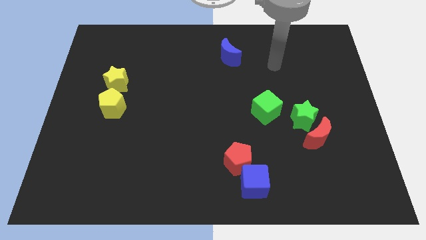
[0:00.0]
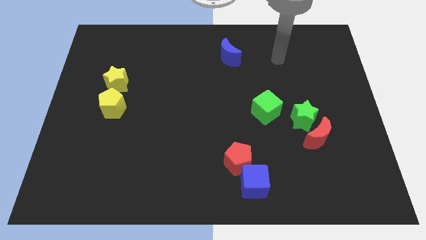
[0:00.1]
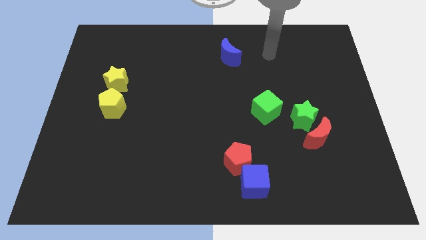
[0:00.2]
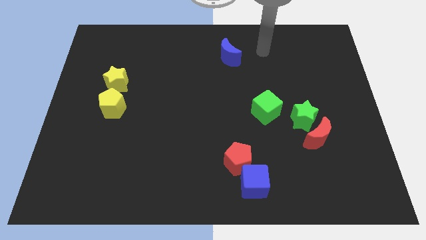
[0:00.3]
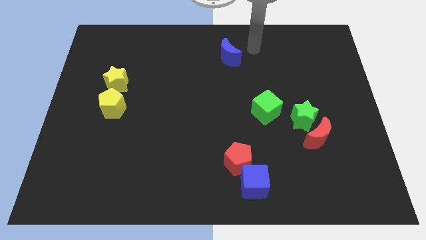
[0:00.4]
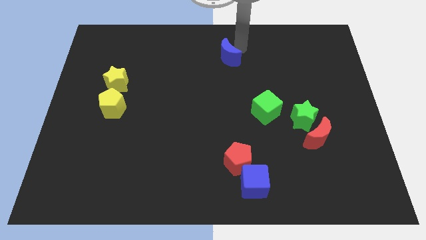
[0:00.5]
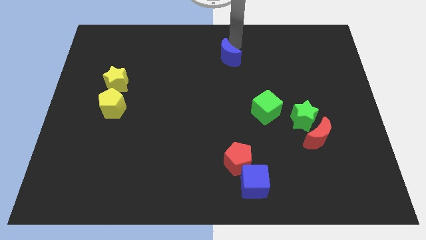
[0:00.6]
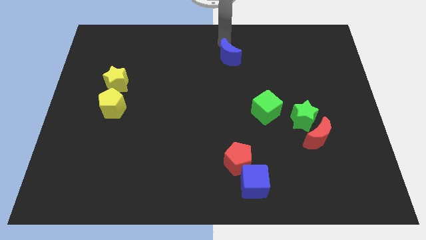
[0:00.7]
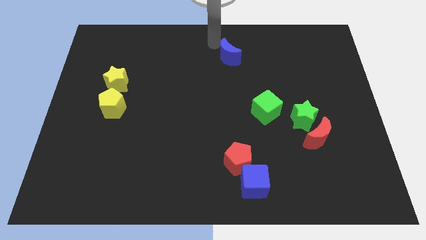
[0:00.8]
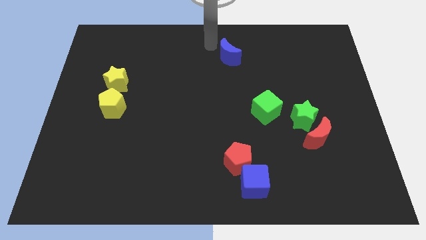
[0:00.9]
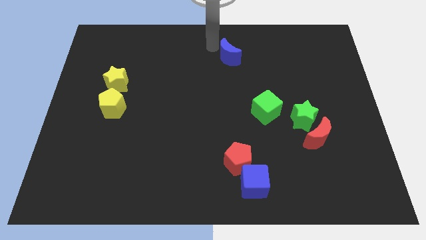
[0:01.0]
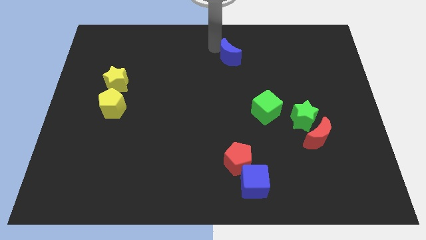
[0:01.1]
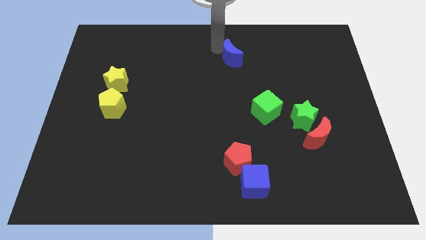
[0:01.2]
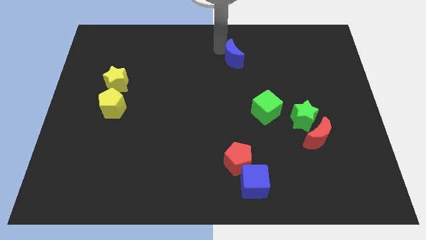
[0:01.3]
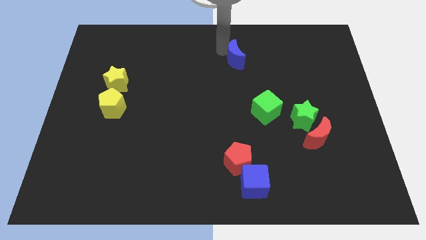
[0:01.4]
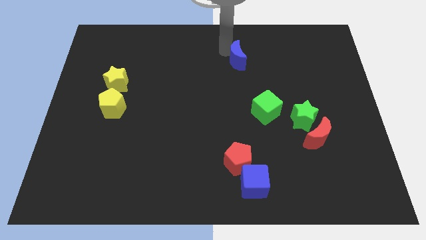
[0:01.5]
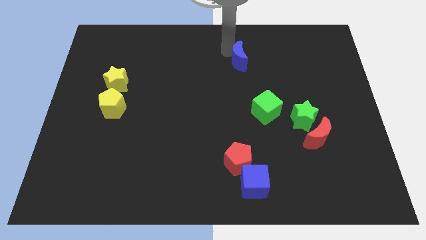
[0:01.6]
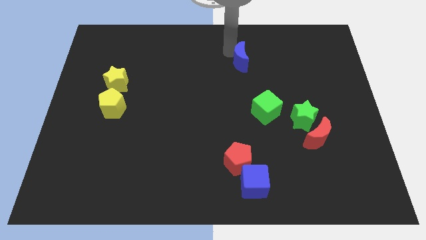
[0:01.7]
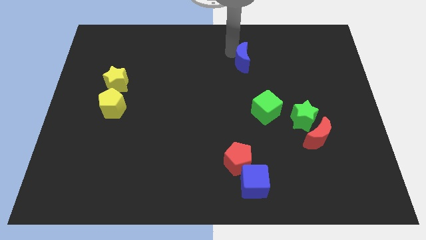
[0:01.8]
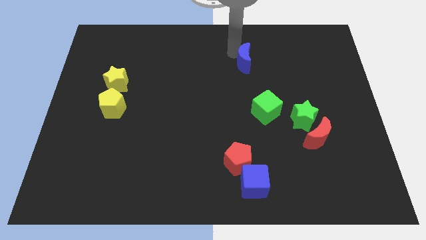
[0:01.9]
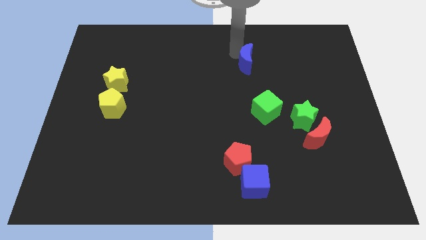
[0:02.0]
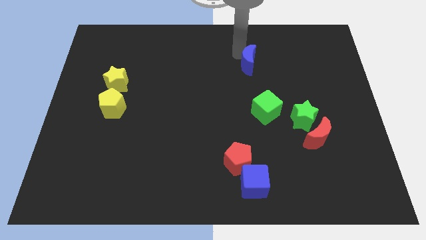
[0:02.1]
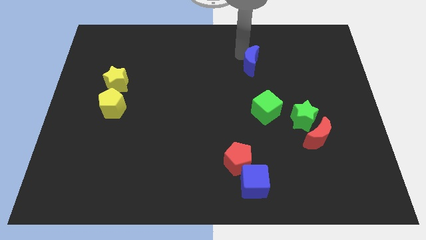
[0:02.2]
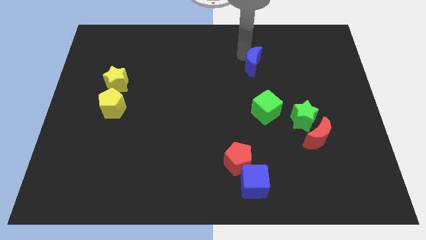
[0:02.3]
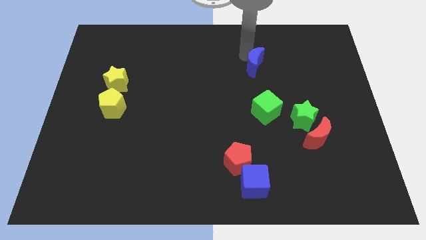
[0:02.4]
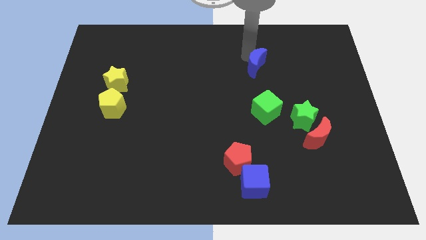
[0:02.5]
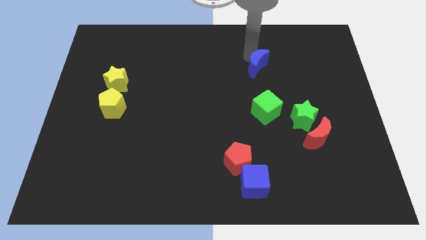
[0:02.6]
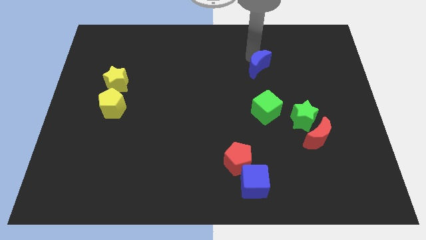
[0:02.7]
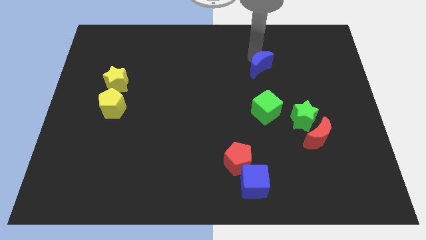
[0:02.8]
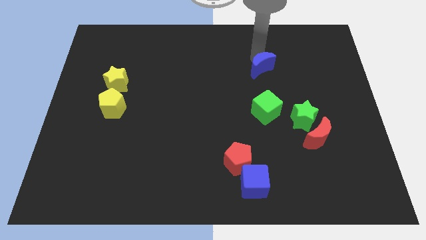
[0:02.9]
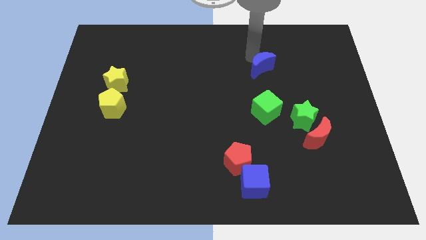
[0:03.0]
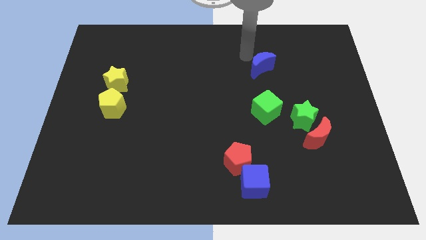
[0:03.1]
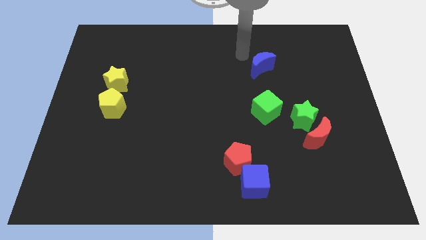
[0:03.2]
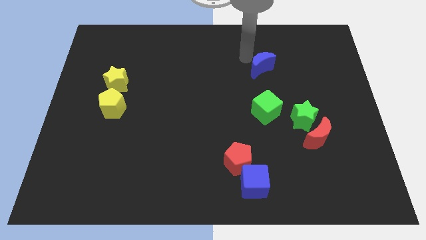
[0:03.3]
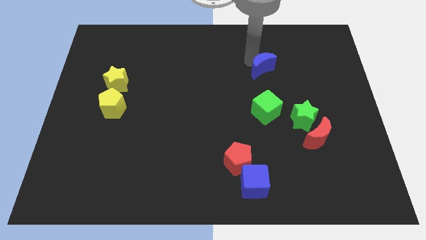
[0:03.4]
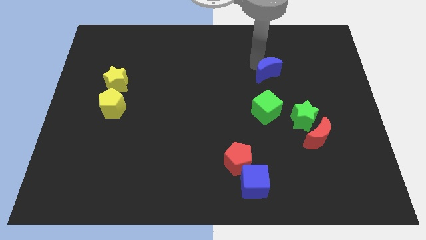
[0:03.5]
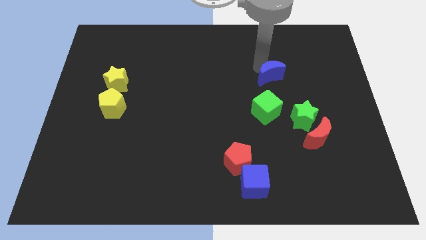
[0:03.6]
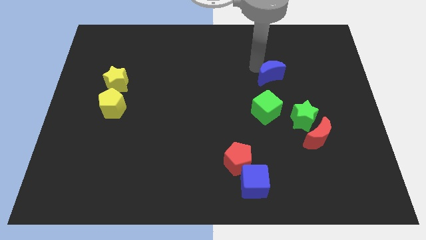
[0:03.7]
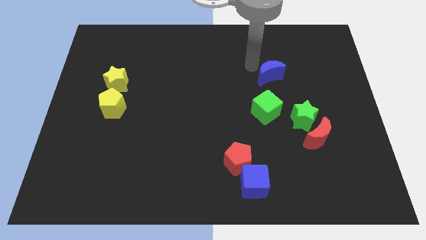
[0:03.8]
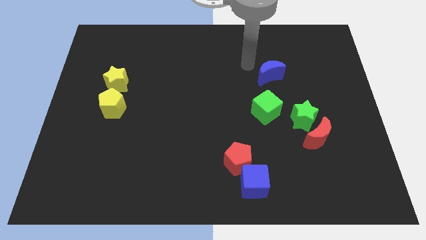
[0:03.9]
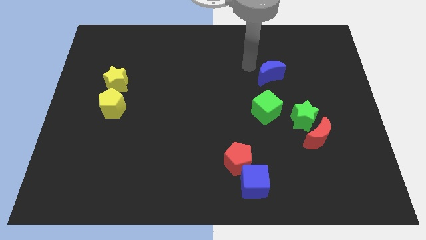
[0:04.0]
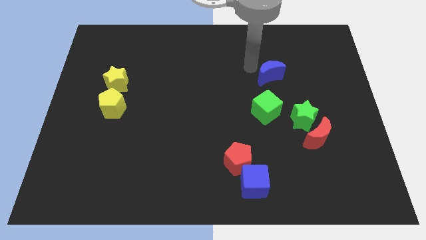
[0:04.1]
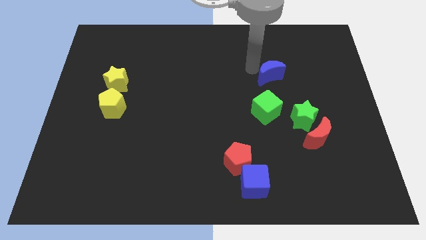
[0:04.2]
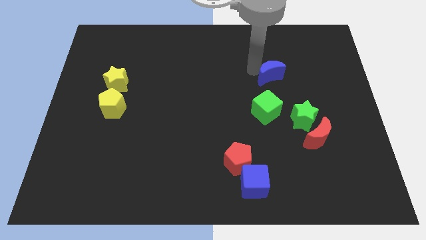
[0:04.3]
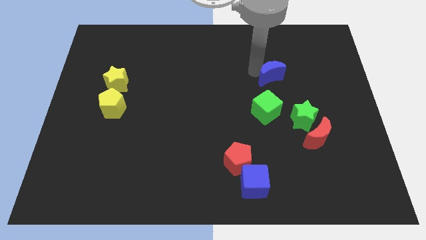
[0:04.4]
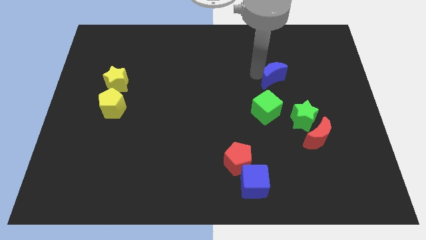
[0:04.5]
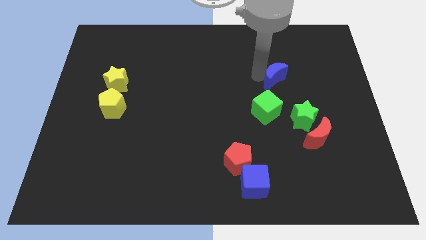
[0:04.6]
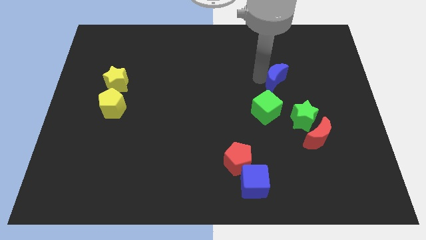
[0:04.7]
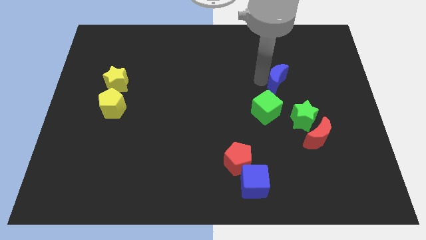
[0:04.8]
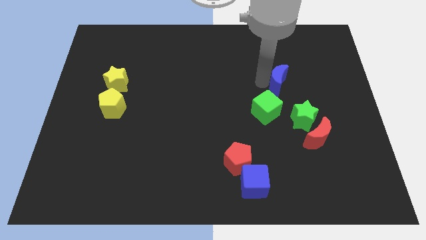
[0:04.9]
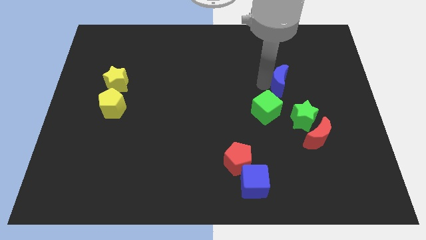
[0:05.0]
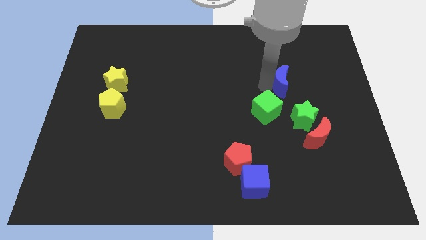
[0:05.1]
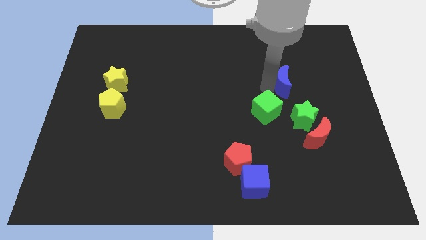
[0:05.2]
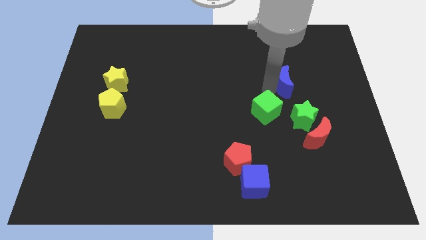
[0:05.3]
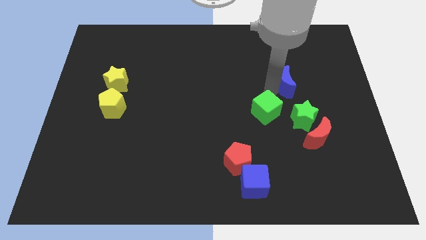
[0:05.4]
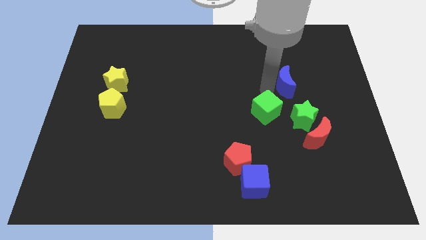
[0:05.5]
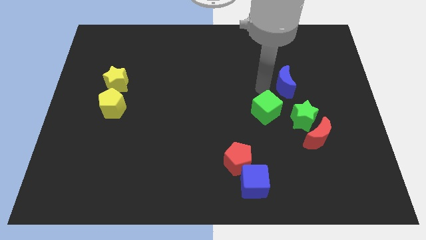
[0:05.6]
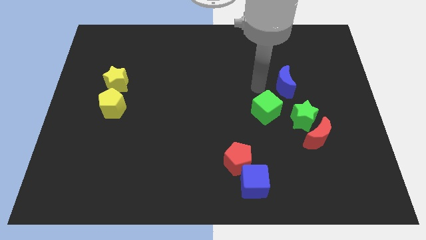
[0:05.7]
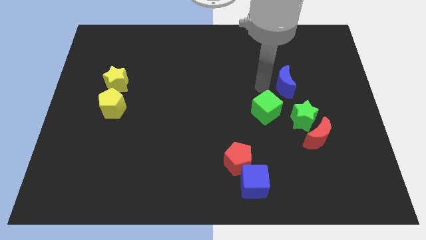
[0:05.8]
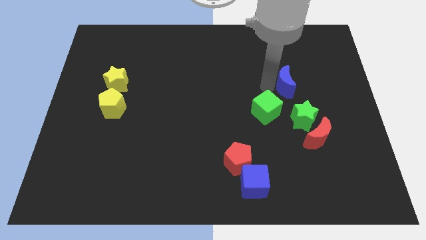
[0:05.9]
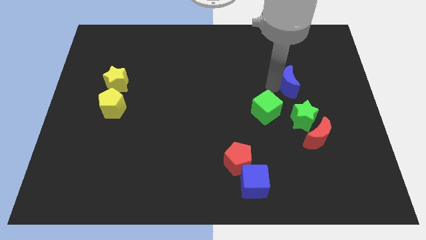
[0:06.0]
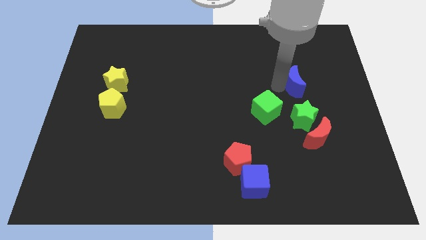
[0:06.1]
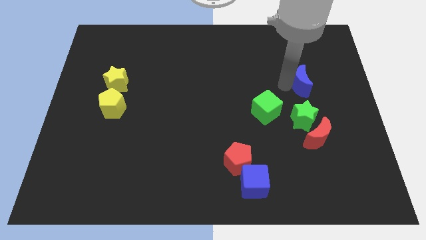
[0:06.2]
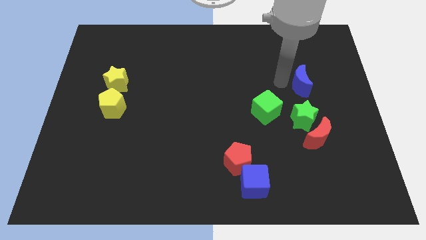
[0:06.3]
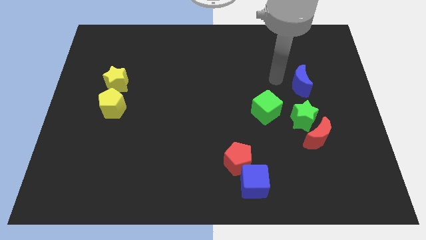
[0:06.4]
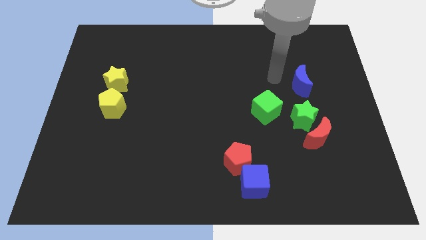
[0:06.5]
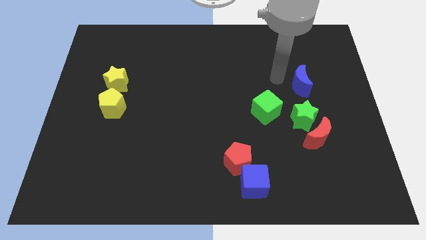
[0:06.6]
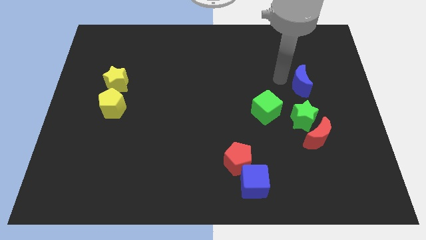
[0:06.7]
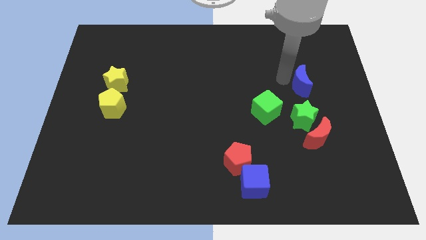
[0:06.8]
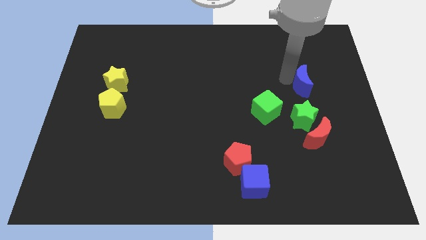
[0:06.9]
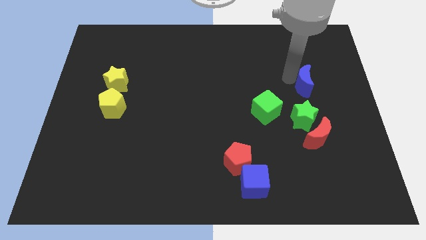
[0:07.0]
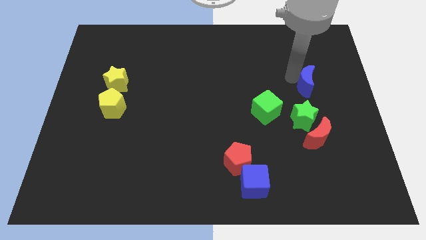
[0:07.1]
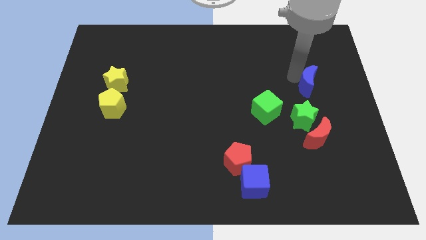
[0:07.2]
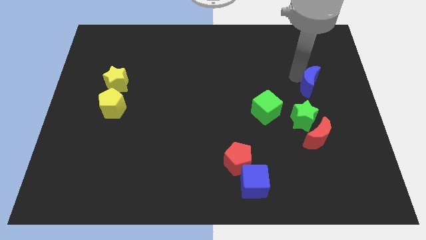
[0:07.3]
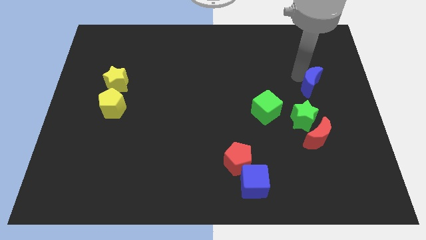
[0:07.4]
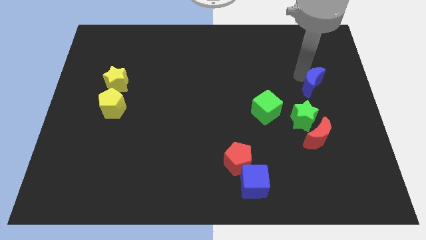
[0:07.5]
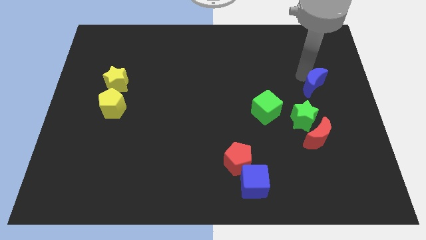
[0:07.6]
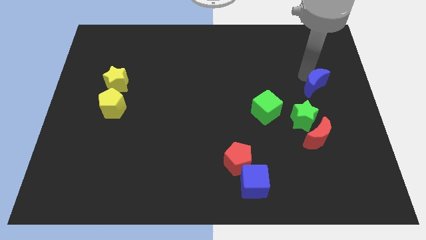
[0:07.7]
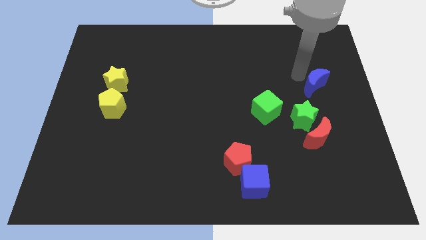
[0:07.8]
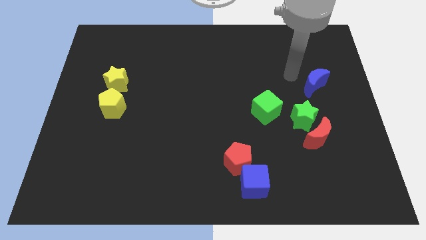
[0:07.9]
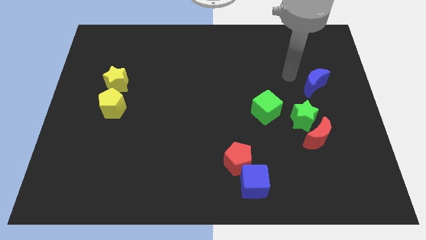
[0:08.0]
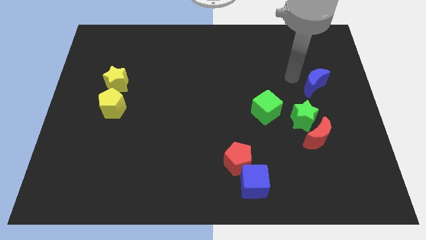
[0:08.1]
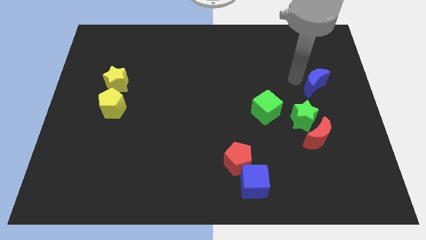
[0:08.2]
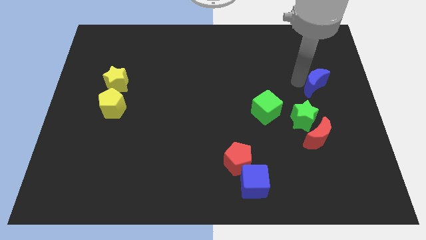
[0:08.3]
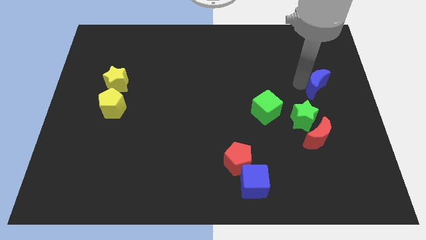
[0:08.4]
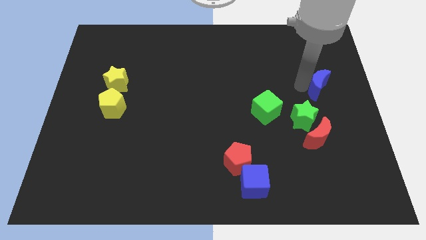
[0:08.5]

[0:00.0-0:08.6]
slide the blue moon to the right side
